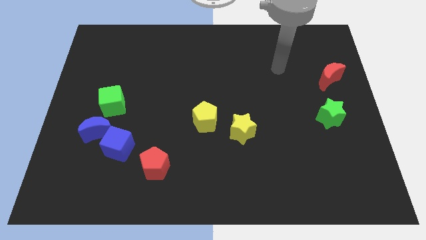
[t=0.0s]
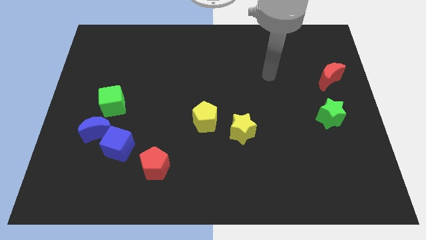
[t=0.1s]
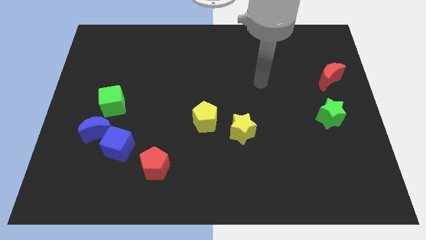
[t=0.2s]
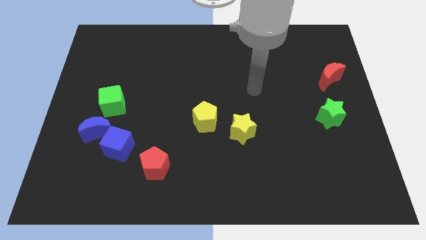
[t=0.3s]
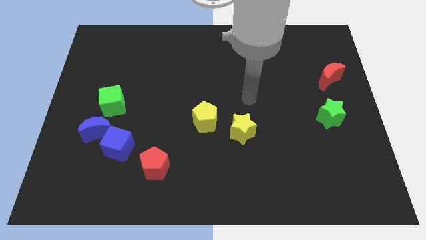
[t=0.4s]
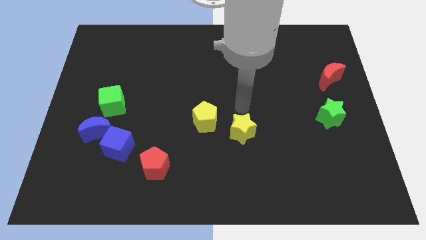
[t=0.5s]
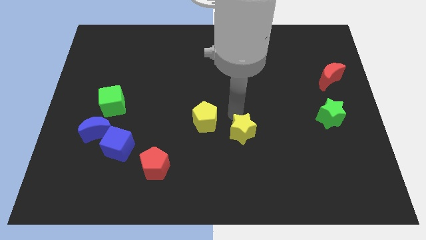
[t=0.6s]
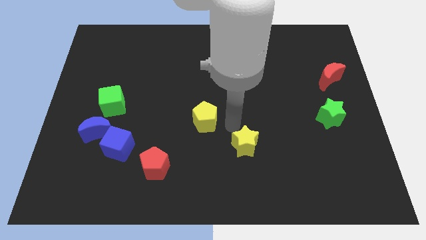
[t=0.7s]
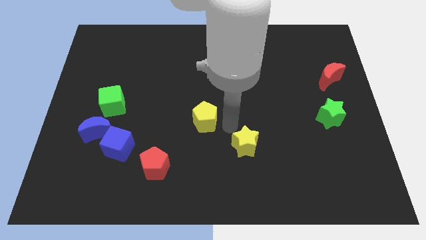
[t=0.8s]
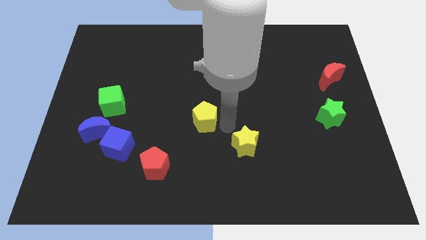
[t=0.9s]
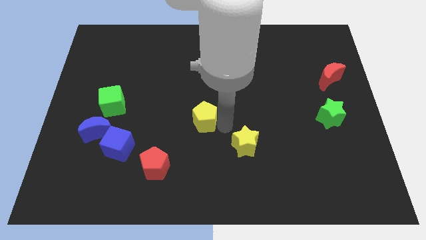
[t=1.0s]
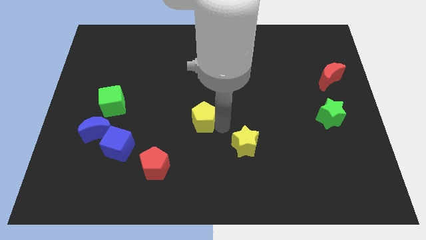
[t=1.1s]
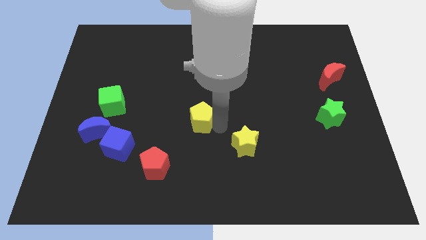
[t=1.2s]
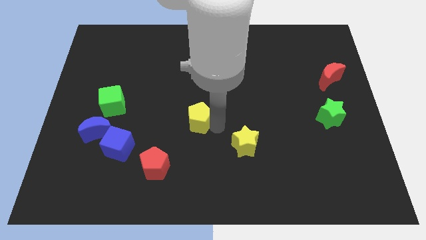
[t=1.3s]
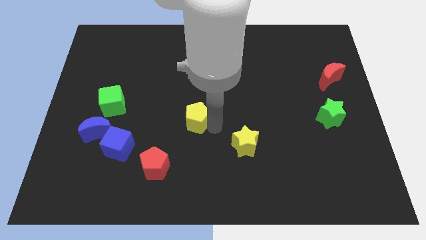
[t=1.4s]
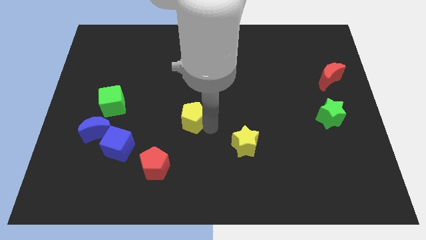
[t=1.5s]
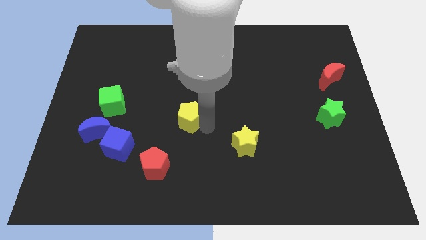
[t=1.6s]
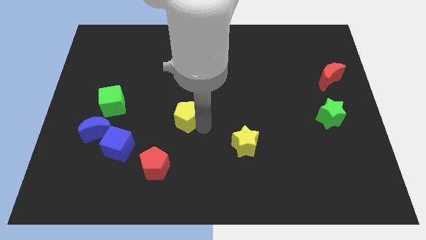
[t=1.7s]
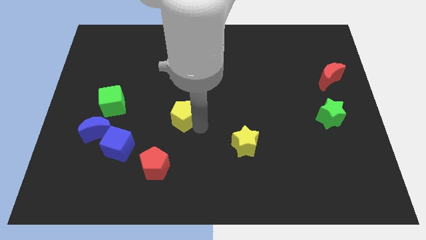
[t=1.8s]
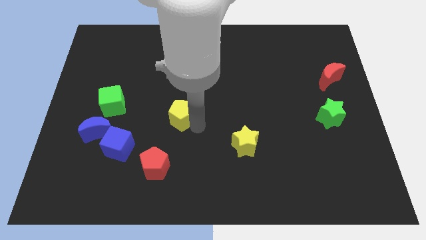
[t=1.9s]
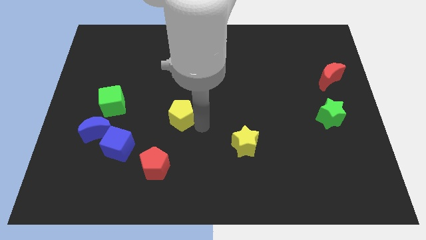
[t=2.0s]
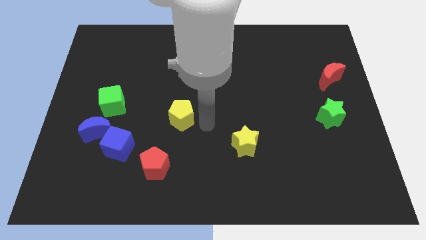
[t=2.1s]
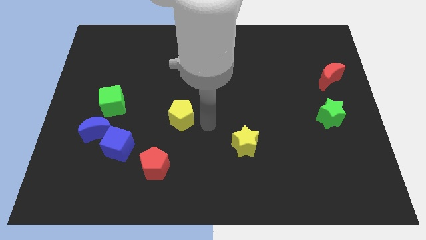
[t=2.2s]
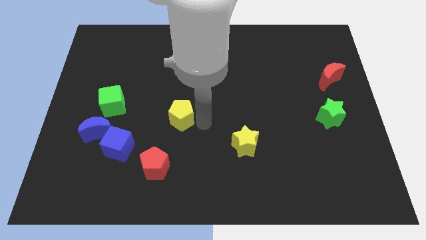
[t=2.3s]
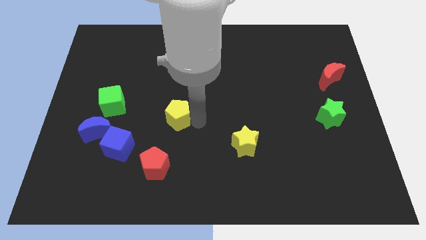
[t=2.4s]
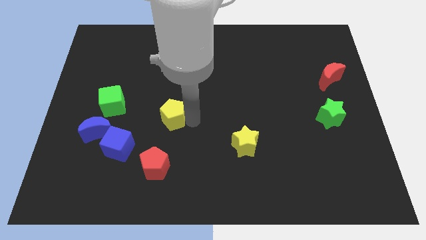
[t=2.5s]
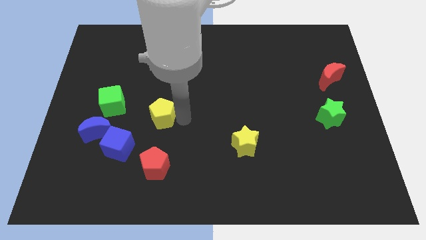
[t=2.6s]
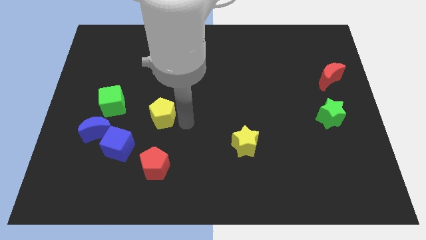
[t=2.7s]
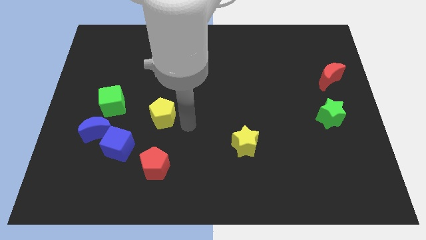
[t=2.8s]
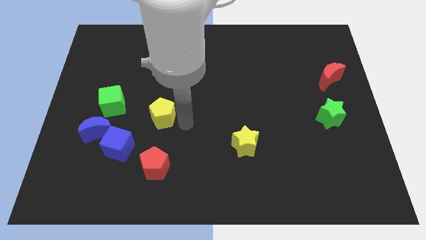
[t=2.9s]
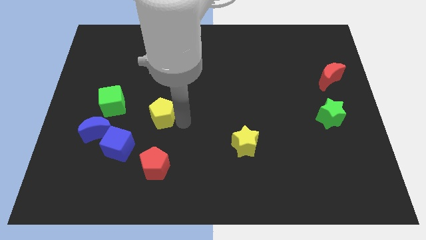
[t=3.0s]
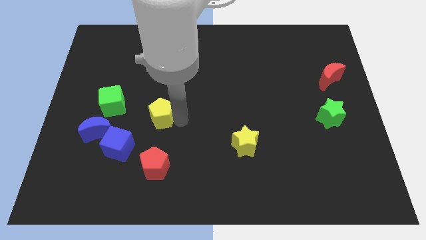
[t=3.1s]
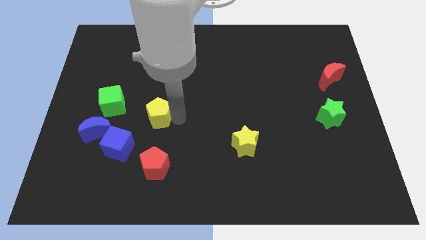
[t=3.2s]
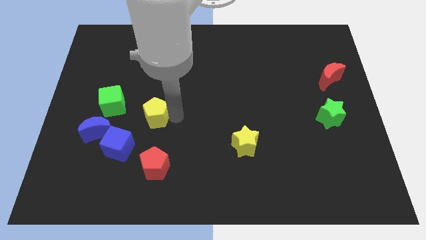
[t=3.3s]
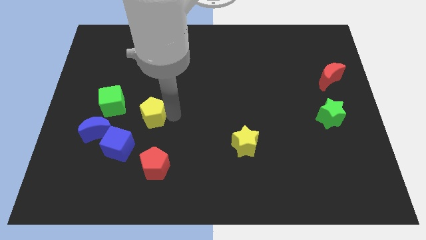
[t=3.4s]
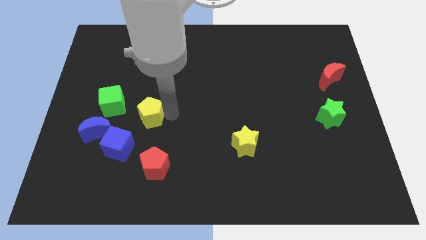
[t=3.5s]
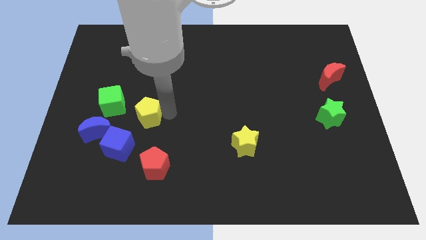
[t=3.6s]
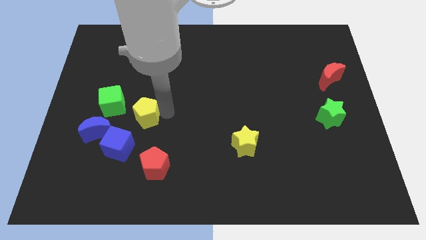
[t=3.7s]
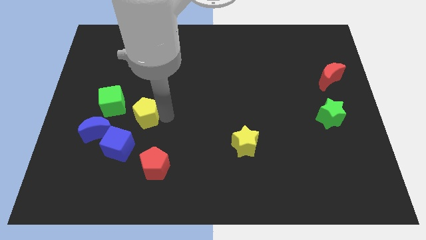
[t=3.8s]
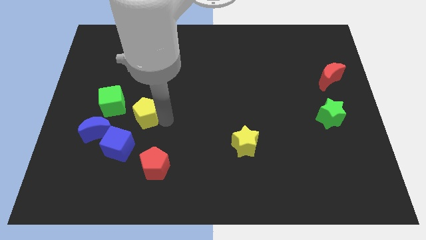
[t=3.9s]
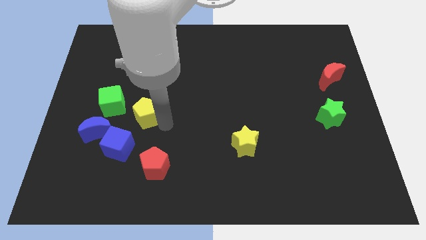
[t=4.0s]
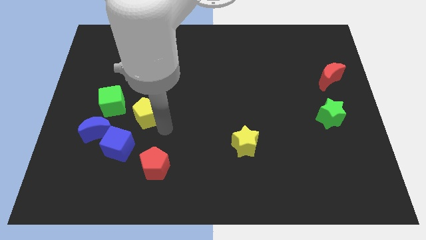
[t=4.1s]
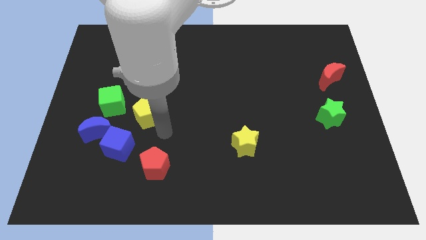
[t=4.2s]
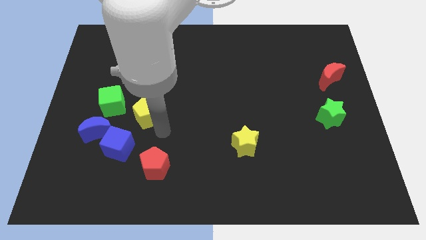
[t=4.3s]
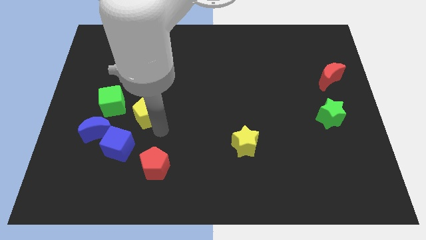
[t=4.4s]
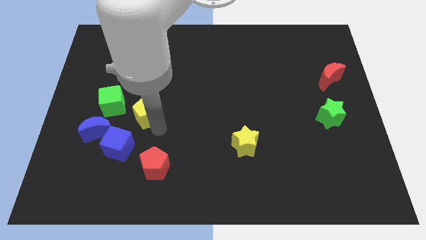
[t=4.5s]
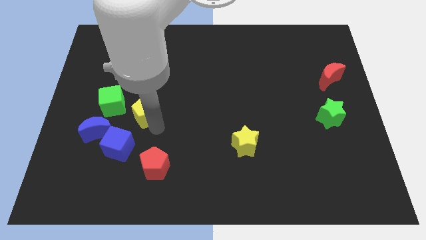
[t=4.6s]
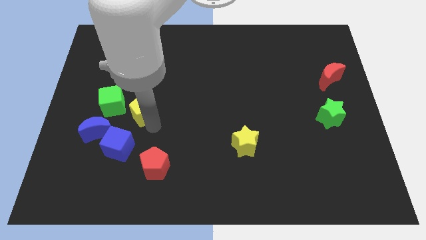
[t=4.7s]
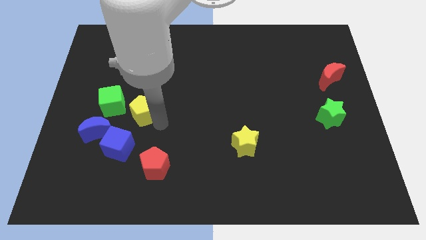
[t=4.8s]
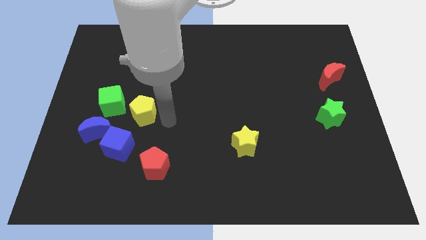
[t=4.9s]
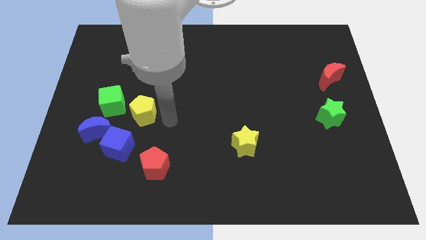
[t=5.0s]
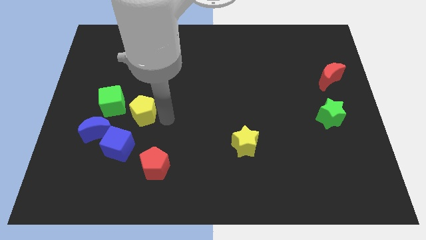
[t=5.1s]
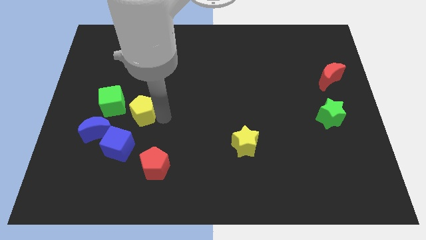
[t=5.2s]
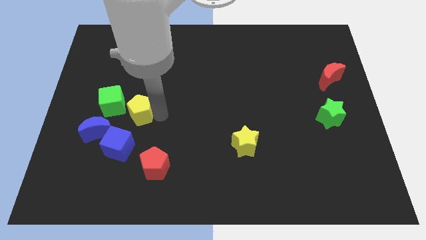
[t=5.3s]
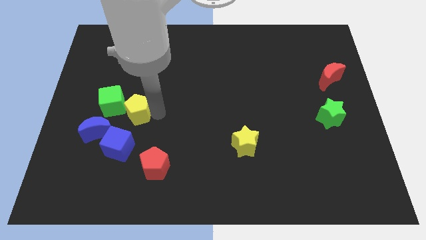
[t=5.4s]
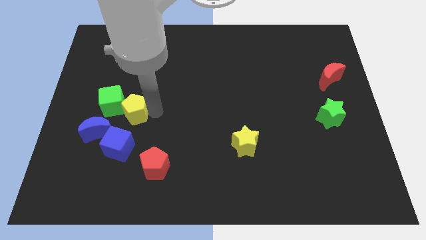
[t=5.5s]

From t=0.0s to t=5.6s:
push the yellow pentagon next to the green cube

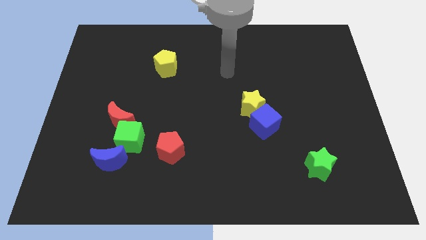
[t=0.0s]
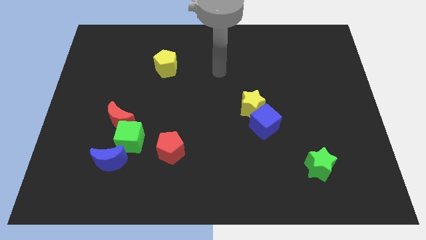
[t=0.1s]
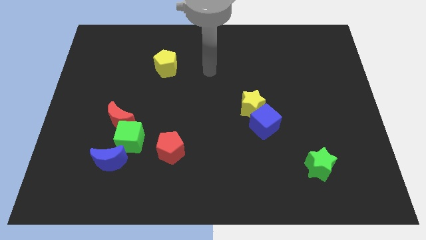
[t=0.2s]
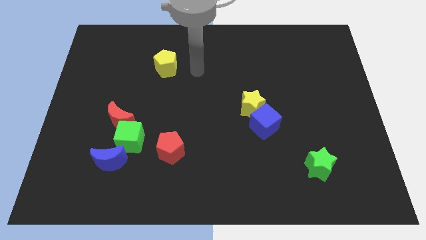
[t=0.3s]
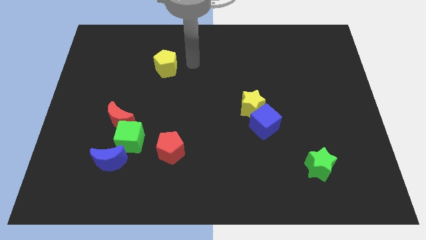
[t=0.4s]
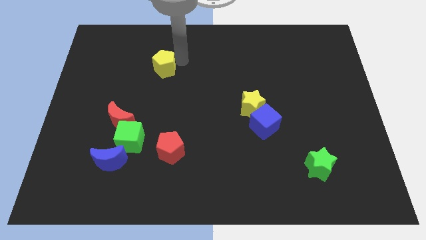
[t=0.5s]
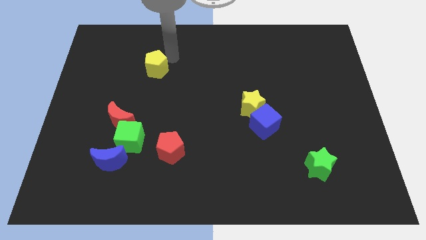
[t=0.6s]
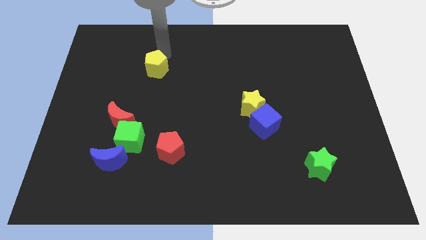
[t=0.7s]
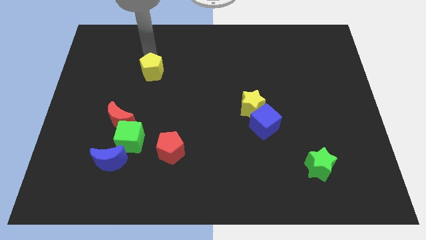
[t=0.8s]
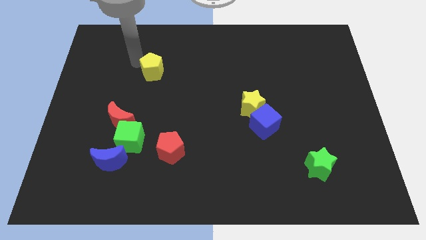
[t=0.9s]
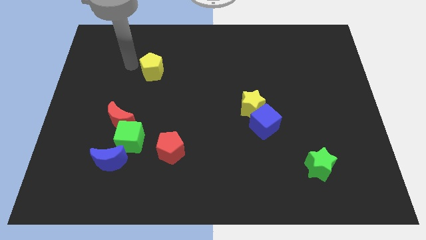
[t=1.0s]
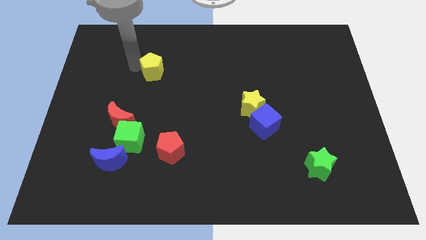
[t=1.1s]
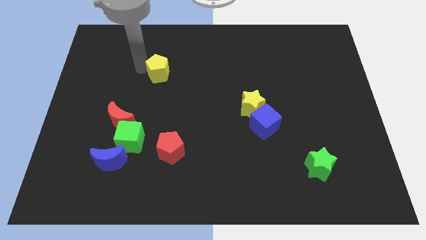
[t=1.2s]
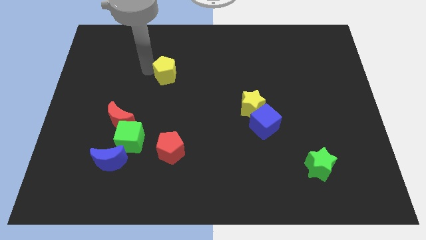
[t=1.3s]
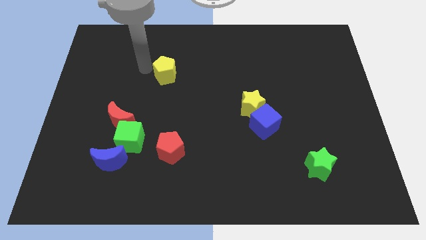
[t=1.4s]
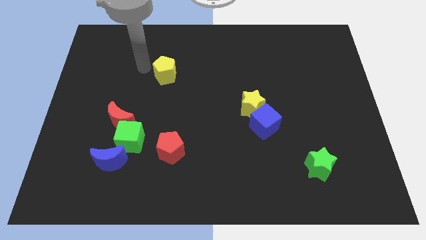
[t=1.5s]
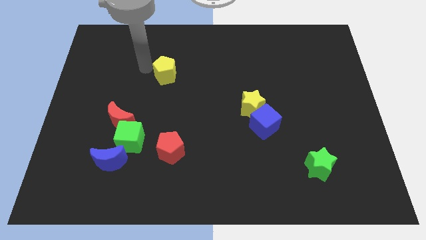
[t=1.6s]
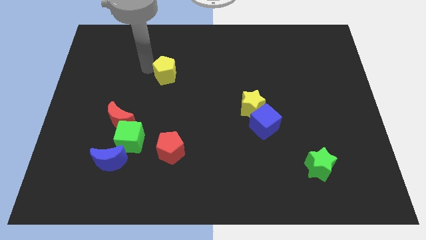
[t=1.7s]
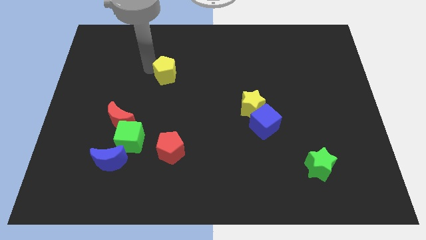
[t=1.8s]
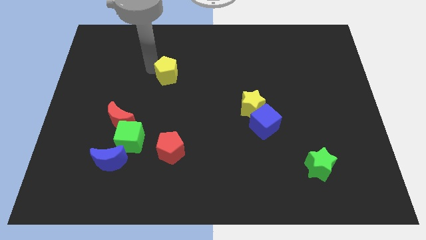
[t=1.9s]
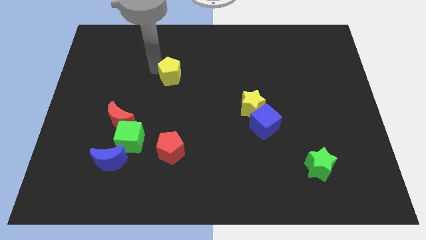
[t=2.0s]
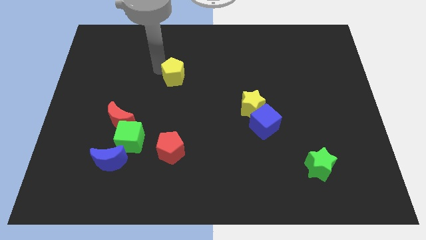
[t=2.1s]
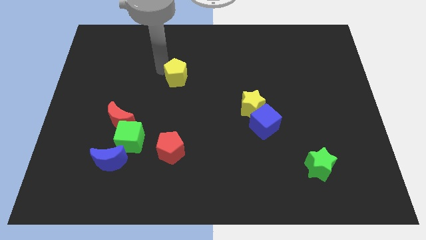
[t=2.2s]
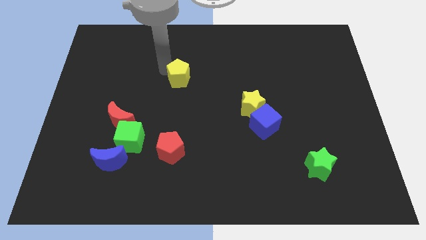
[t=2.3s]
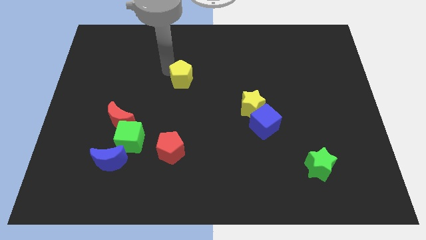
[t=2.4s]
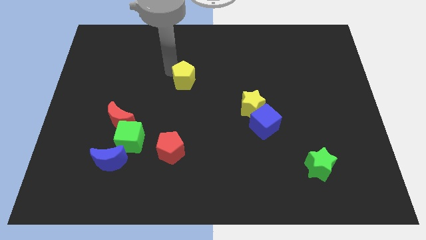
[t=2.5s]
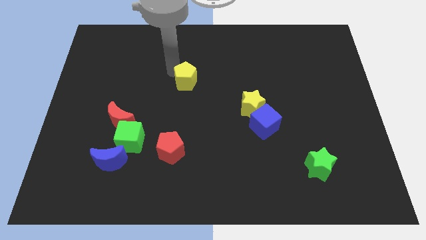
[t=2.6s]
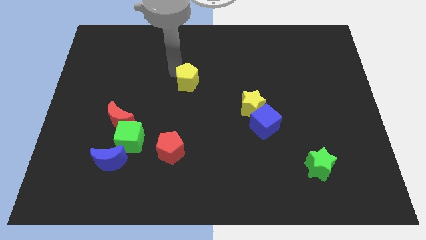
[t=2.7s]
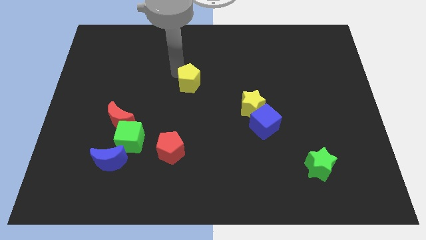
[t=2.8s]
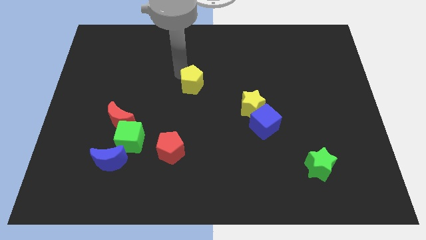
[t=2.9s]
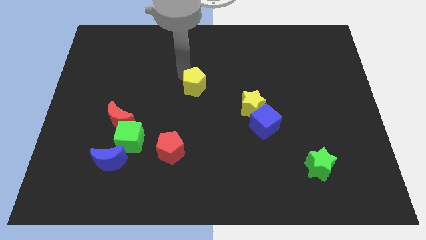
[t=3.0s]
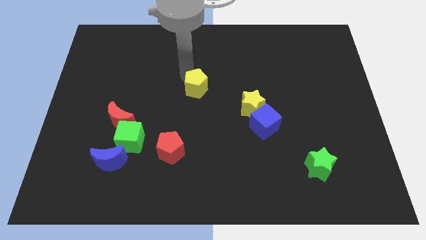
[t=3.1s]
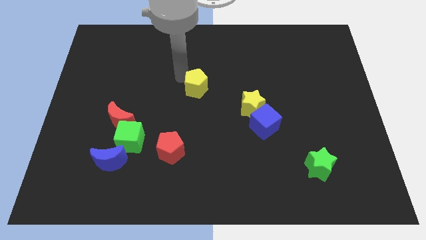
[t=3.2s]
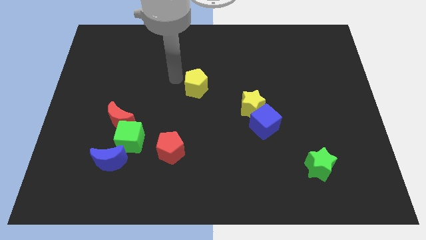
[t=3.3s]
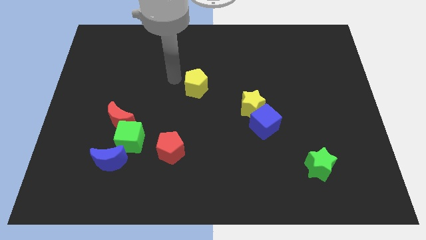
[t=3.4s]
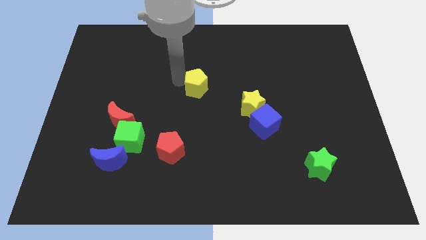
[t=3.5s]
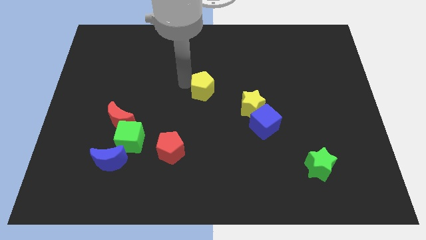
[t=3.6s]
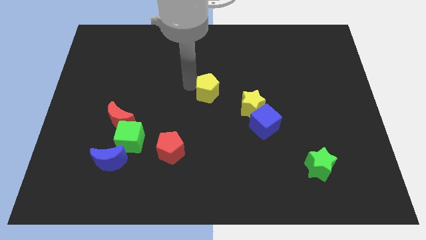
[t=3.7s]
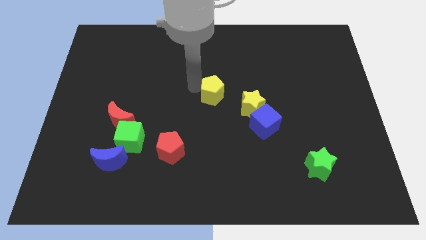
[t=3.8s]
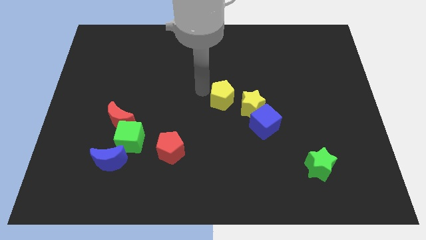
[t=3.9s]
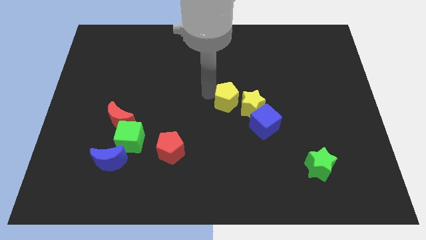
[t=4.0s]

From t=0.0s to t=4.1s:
slide the yellow pentagon towards the yellow star
